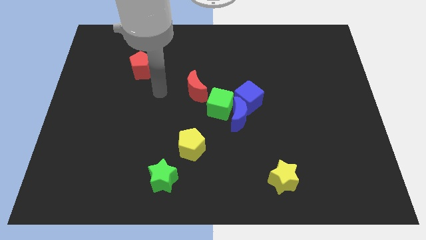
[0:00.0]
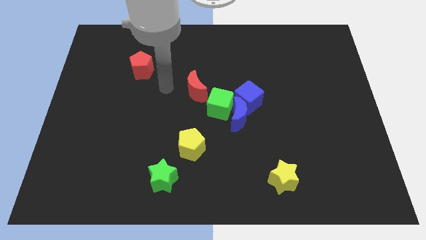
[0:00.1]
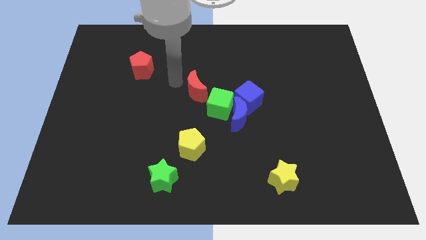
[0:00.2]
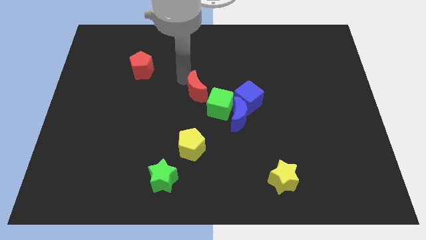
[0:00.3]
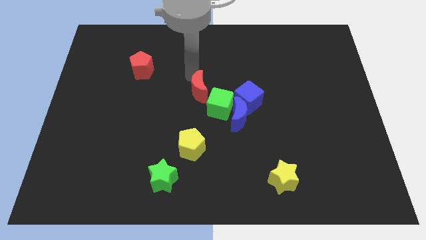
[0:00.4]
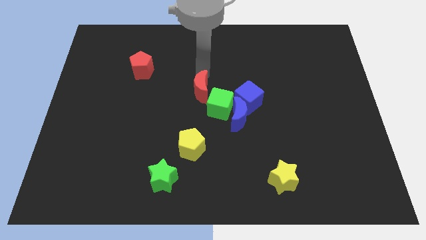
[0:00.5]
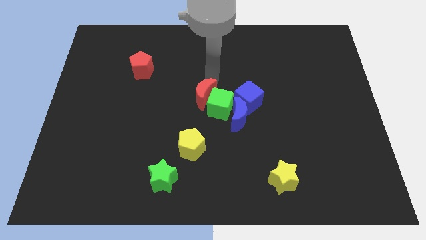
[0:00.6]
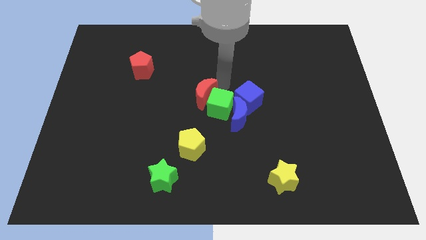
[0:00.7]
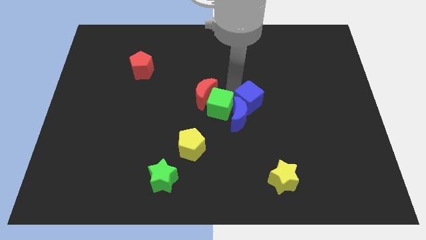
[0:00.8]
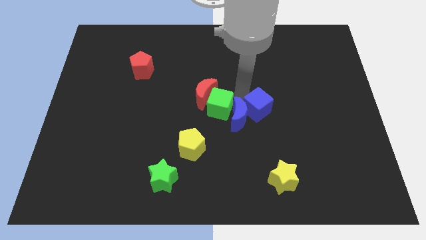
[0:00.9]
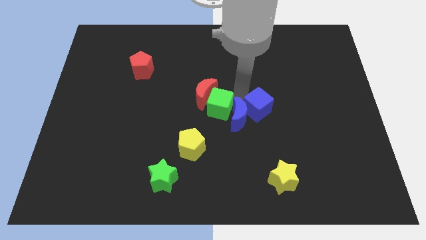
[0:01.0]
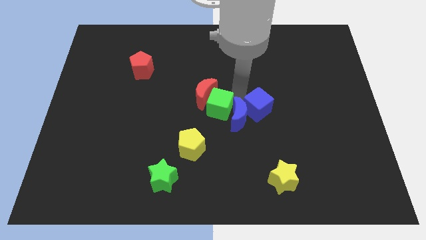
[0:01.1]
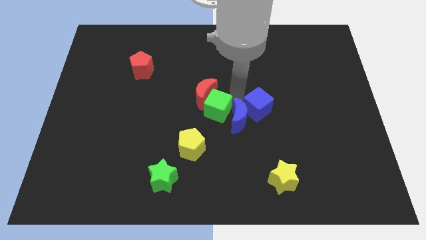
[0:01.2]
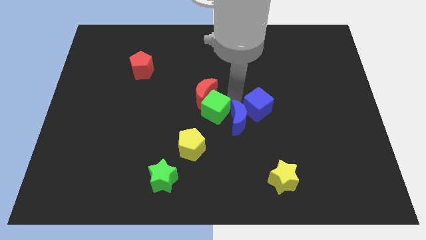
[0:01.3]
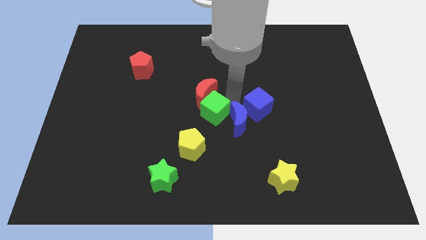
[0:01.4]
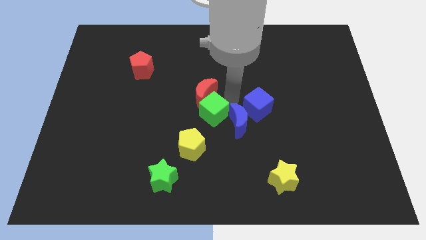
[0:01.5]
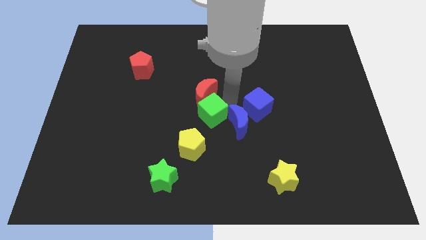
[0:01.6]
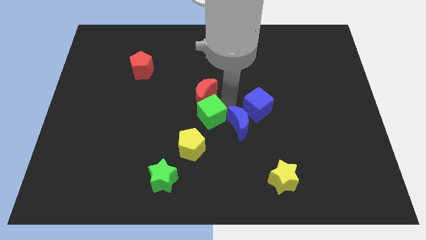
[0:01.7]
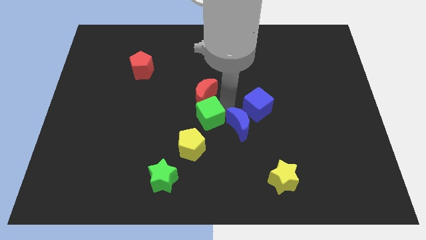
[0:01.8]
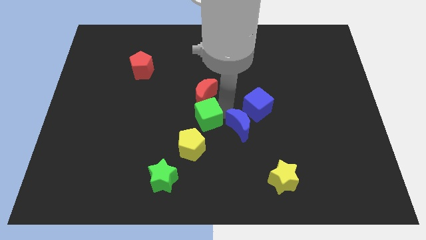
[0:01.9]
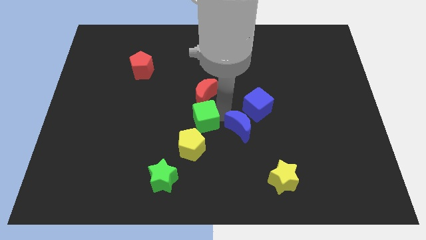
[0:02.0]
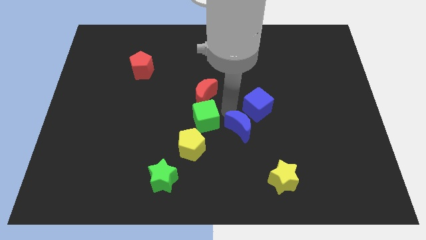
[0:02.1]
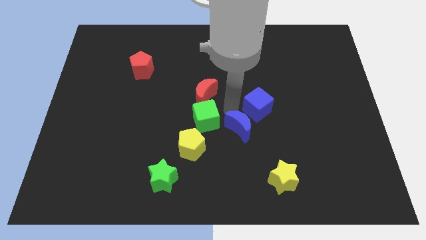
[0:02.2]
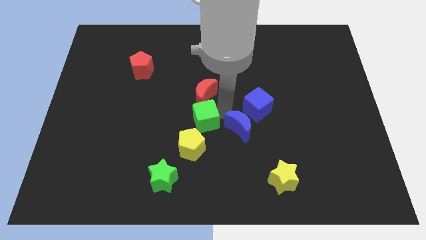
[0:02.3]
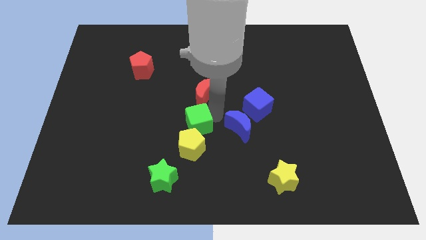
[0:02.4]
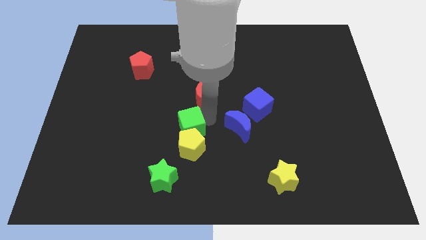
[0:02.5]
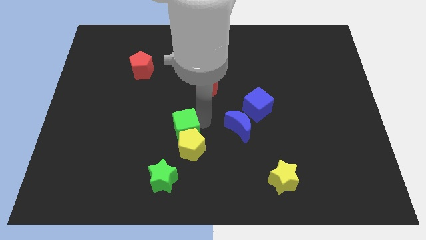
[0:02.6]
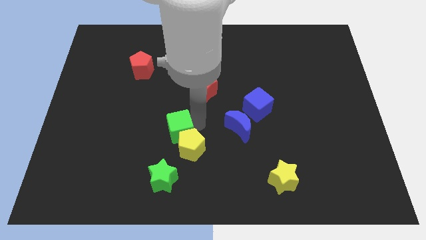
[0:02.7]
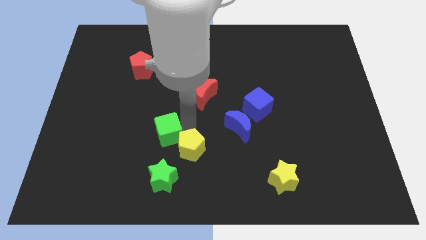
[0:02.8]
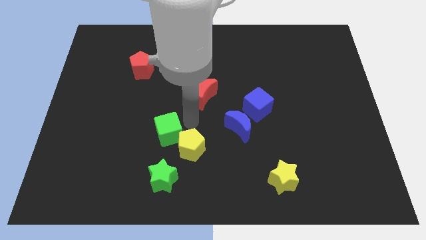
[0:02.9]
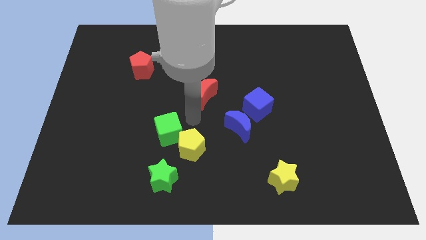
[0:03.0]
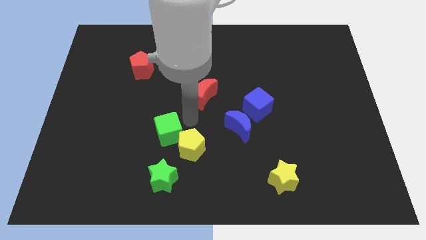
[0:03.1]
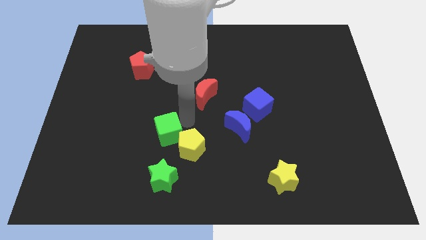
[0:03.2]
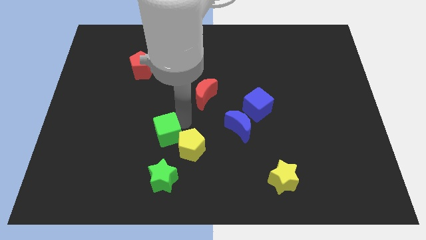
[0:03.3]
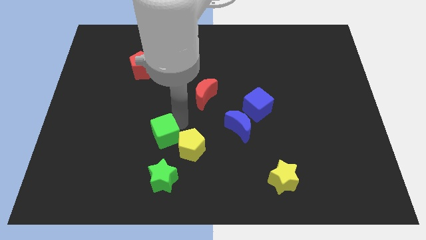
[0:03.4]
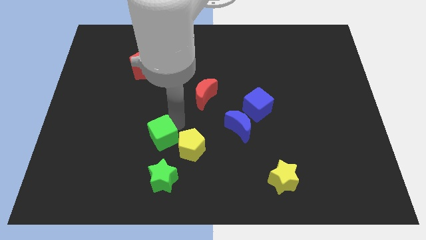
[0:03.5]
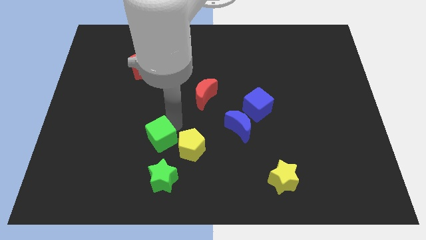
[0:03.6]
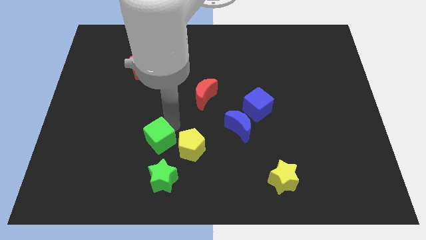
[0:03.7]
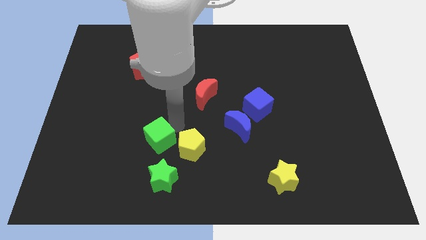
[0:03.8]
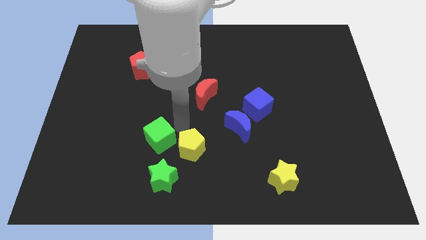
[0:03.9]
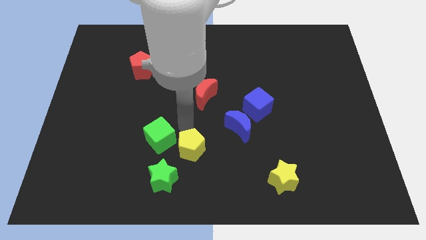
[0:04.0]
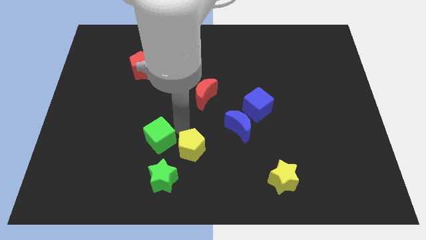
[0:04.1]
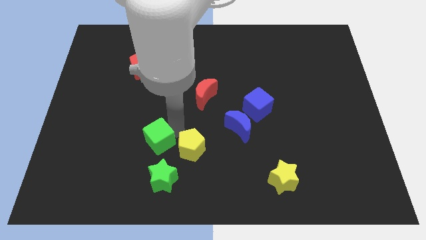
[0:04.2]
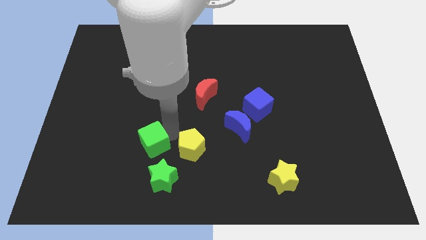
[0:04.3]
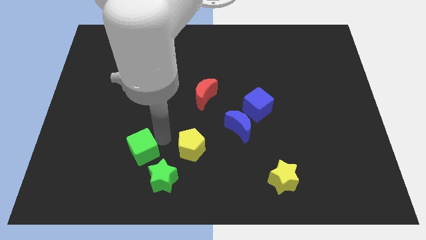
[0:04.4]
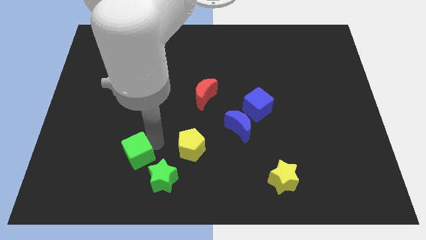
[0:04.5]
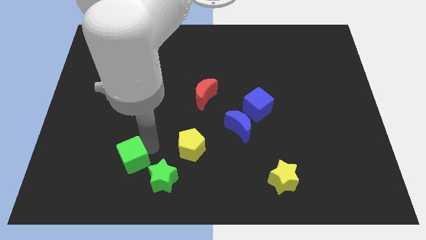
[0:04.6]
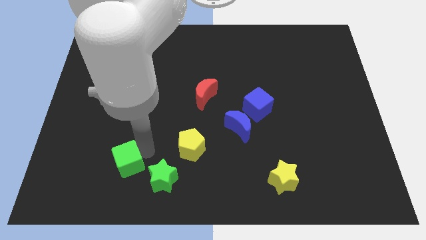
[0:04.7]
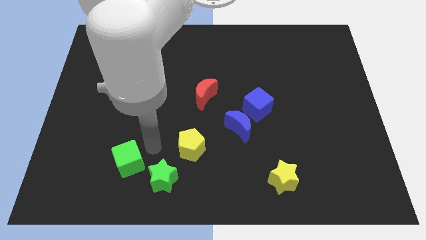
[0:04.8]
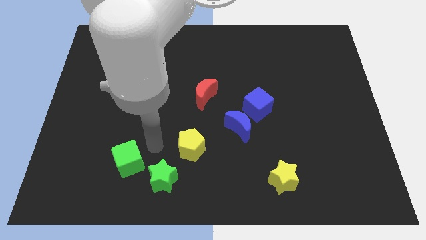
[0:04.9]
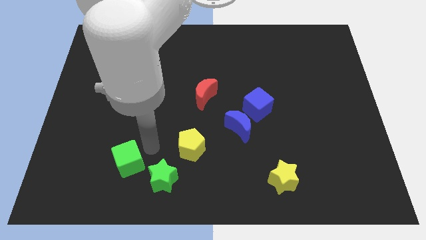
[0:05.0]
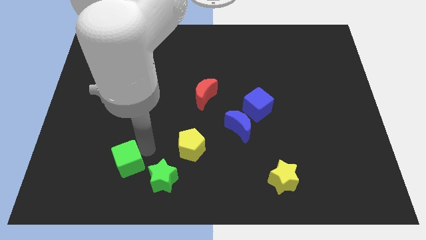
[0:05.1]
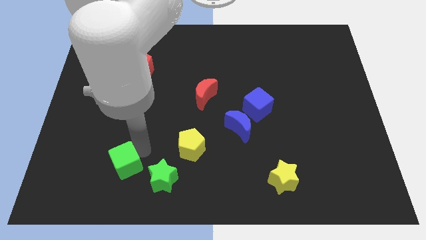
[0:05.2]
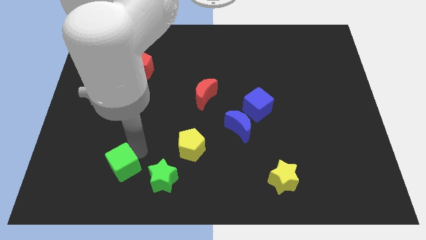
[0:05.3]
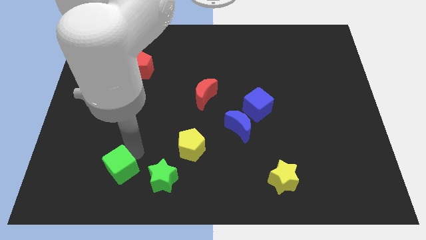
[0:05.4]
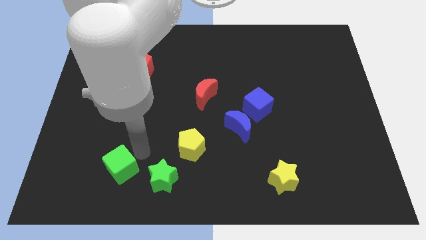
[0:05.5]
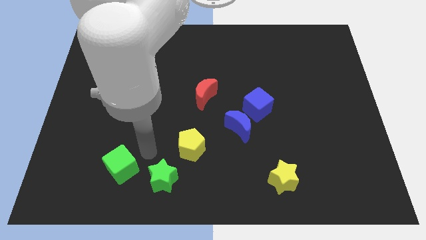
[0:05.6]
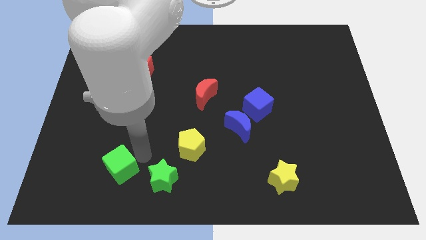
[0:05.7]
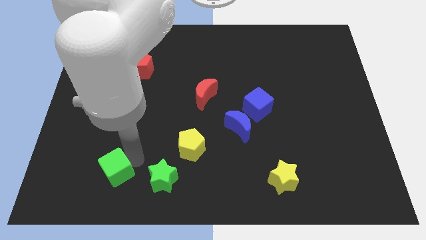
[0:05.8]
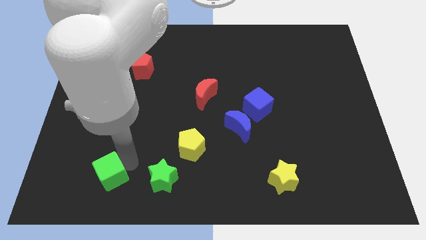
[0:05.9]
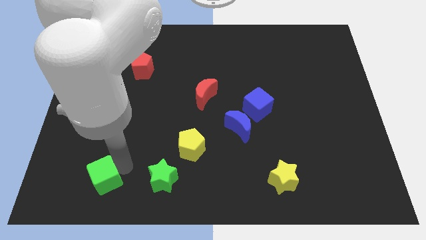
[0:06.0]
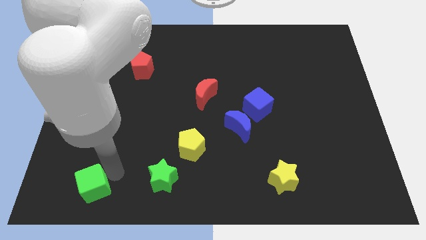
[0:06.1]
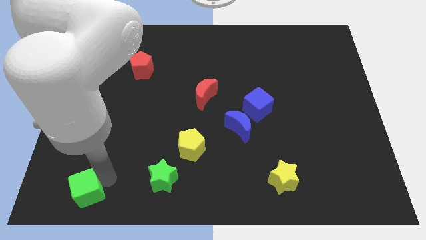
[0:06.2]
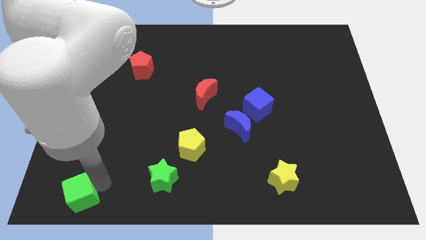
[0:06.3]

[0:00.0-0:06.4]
slide the green cube to the bottom left of the board
